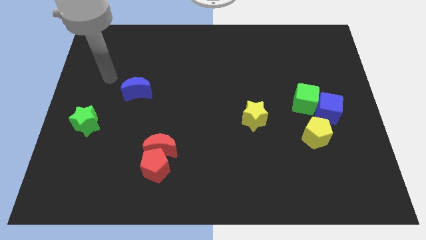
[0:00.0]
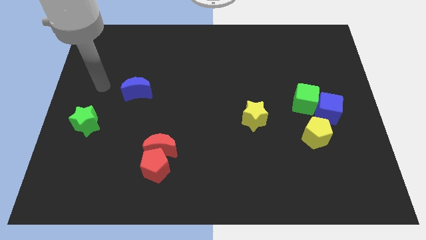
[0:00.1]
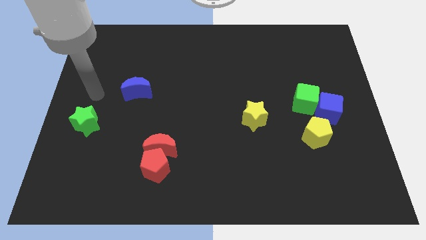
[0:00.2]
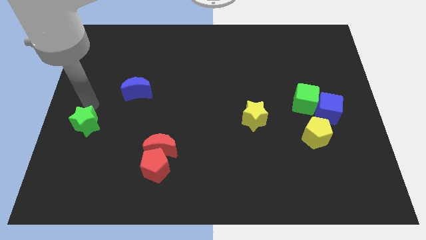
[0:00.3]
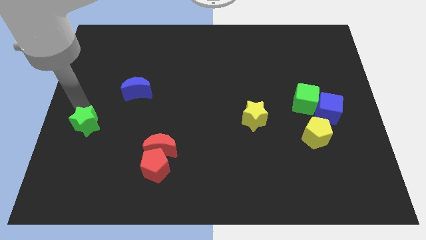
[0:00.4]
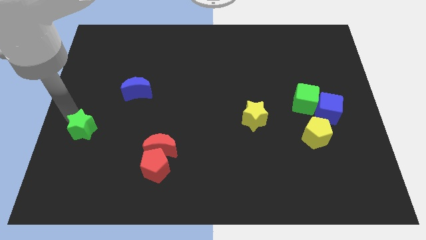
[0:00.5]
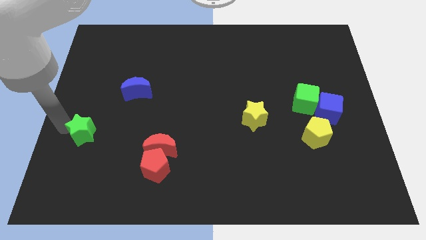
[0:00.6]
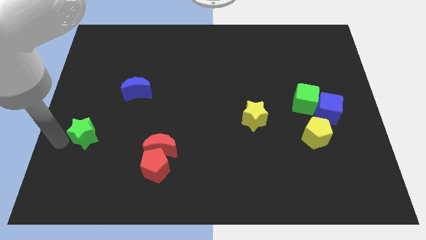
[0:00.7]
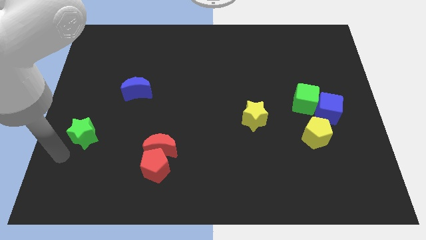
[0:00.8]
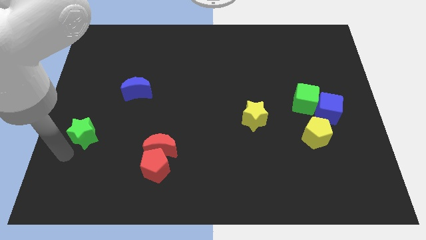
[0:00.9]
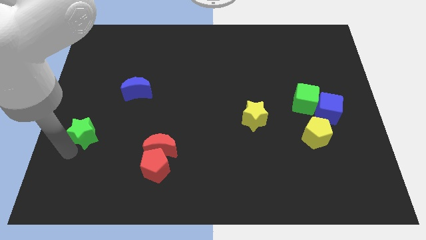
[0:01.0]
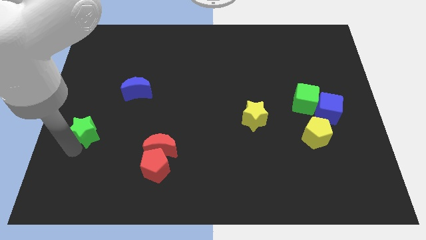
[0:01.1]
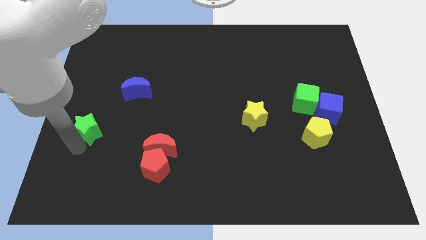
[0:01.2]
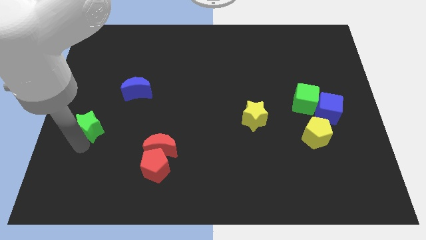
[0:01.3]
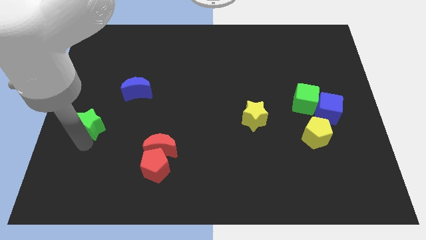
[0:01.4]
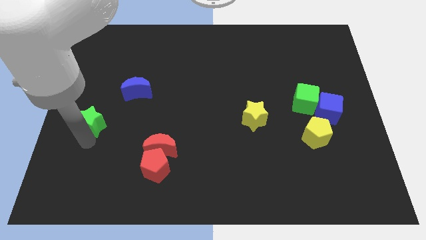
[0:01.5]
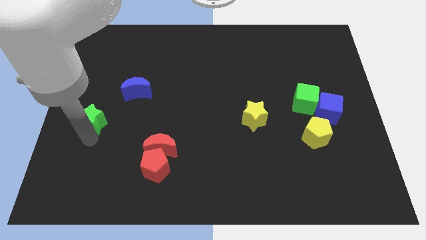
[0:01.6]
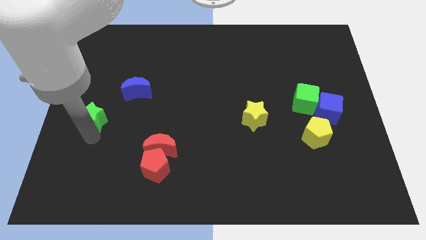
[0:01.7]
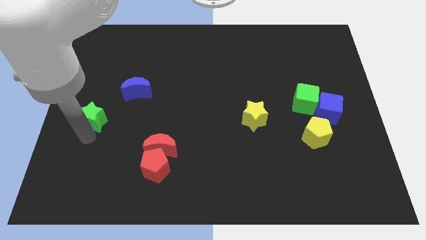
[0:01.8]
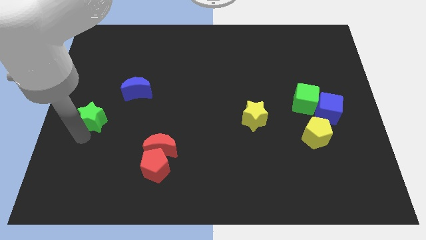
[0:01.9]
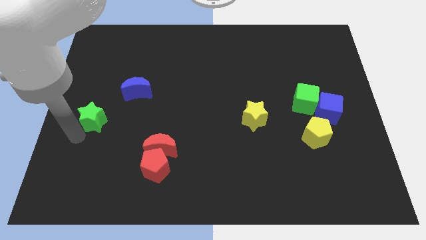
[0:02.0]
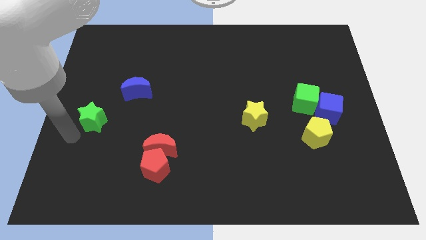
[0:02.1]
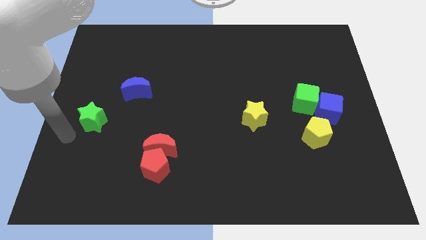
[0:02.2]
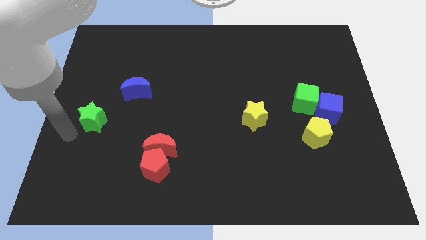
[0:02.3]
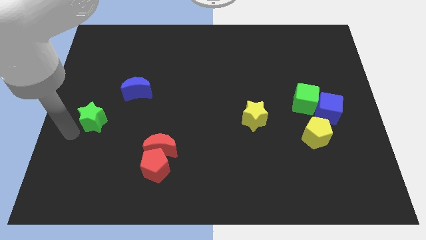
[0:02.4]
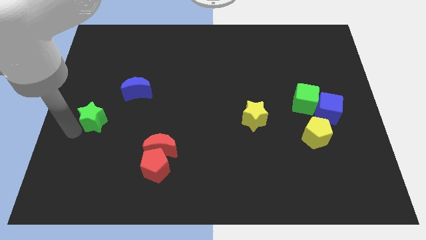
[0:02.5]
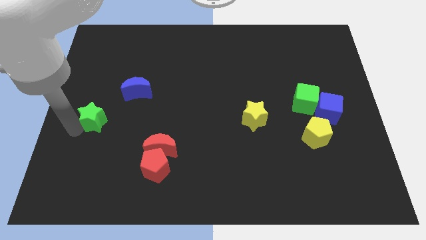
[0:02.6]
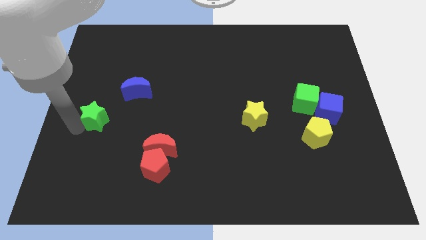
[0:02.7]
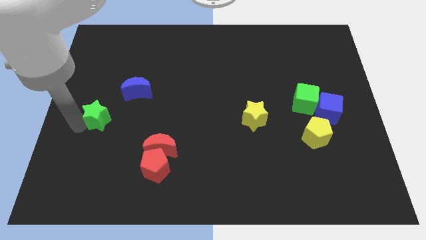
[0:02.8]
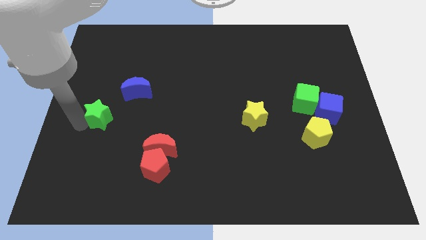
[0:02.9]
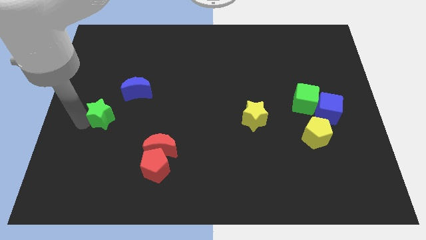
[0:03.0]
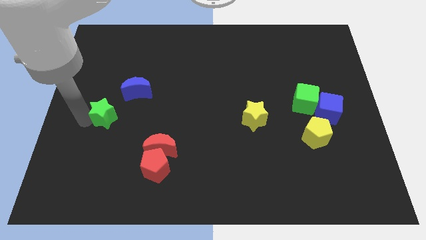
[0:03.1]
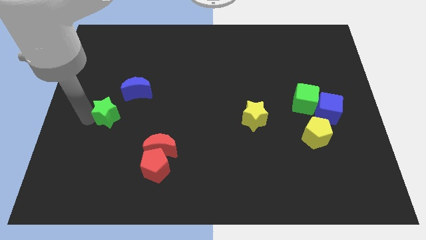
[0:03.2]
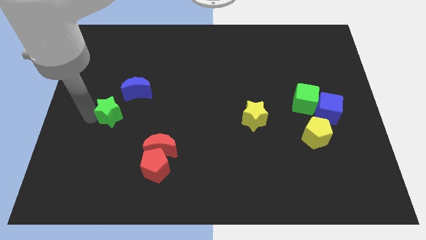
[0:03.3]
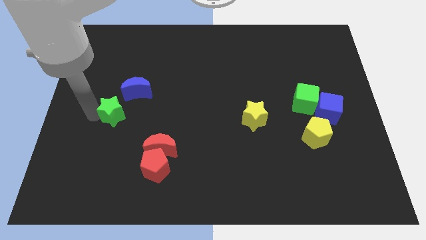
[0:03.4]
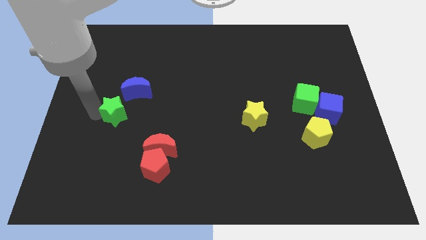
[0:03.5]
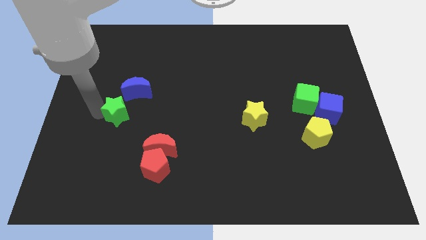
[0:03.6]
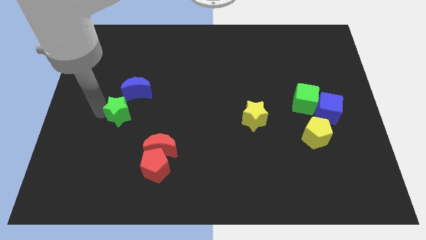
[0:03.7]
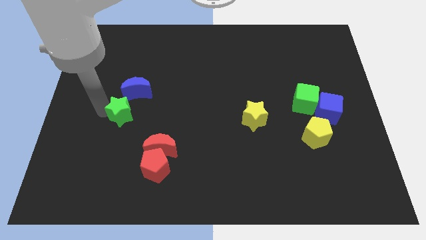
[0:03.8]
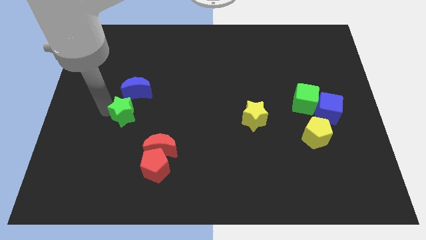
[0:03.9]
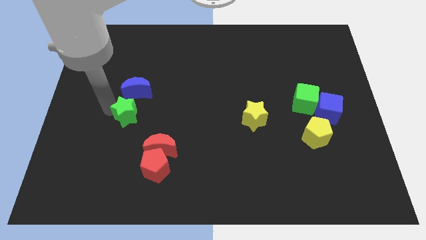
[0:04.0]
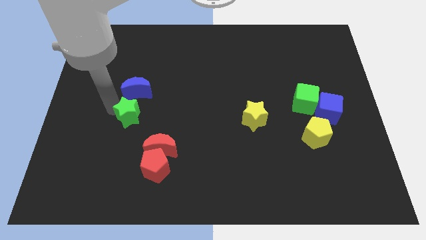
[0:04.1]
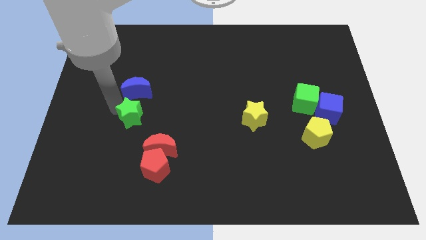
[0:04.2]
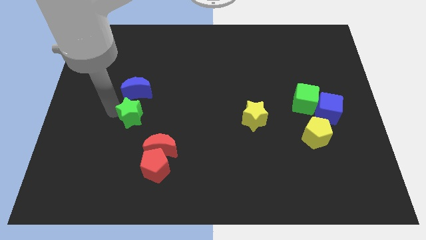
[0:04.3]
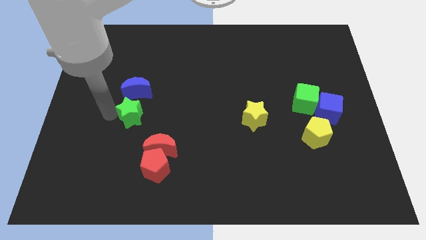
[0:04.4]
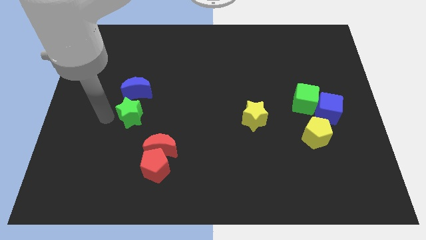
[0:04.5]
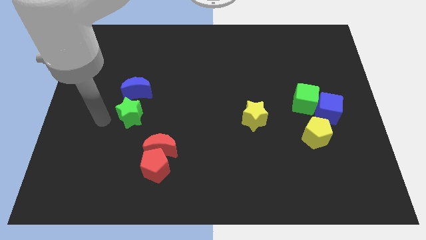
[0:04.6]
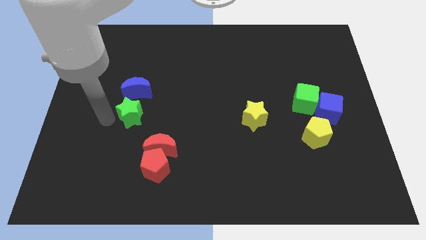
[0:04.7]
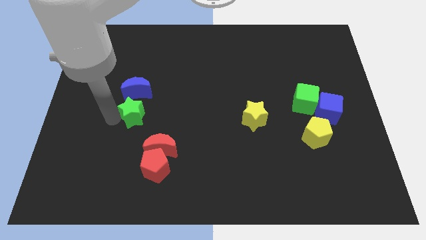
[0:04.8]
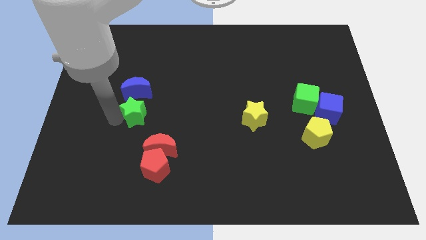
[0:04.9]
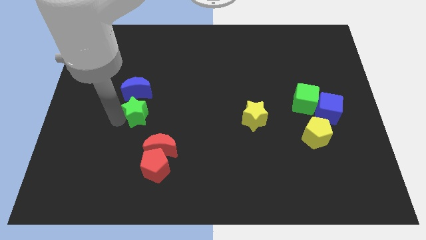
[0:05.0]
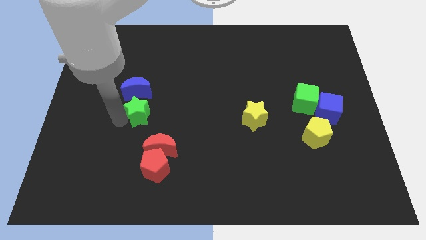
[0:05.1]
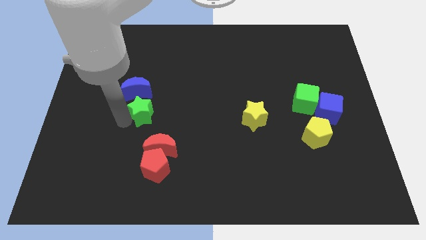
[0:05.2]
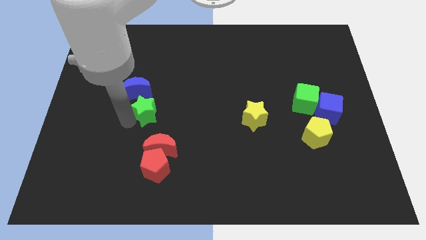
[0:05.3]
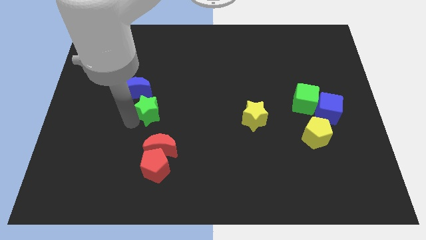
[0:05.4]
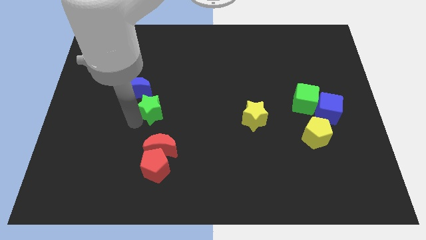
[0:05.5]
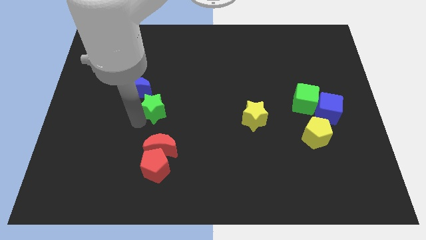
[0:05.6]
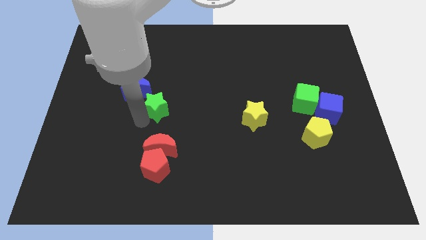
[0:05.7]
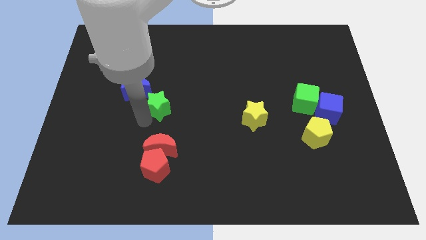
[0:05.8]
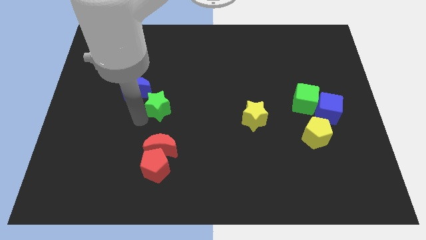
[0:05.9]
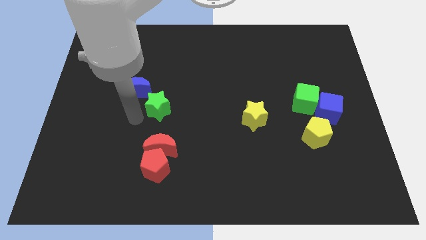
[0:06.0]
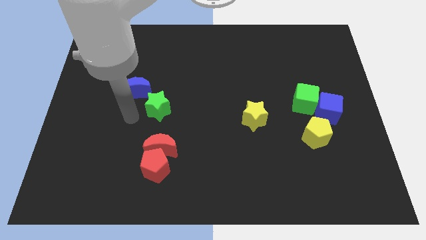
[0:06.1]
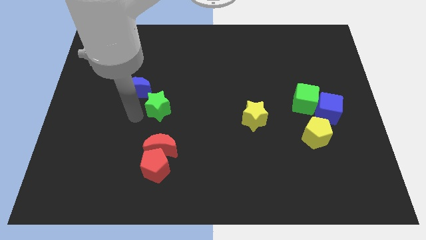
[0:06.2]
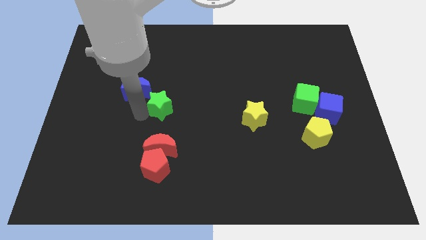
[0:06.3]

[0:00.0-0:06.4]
put the green star to the middle
